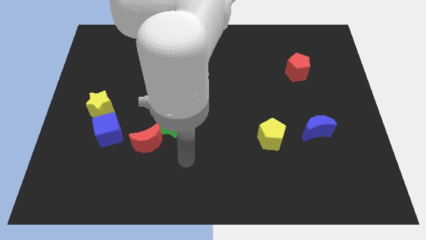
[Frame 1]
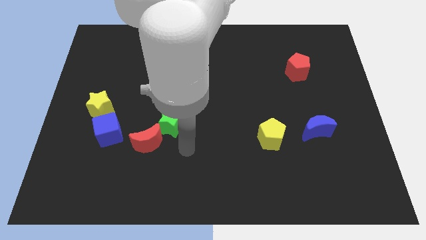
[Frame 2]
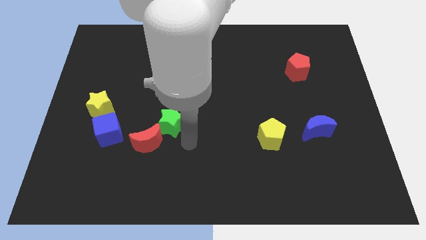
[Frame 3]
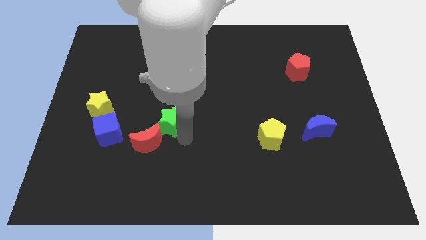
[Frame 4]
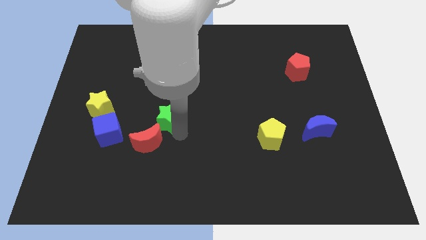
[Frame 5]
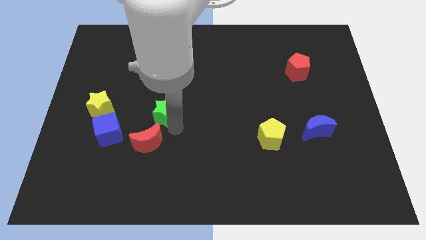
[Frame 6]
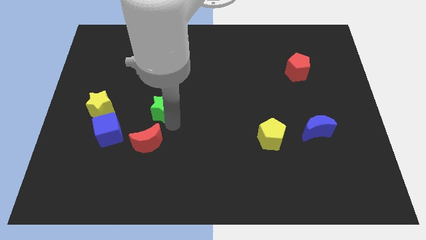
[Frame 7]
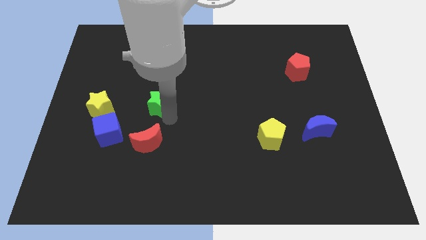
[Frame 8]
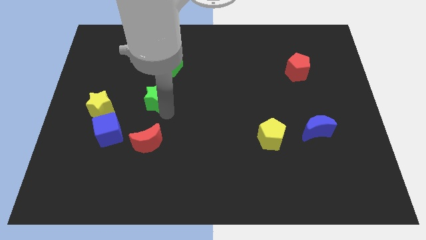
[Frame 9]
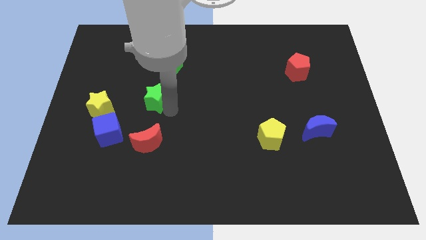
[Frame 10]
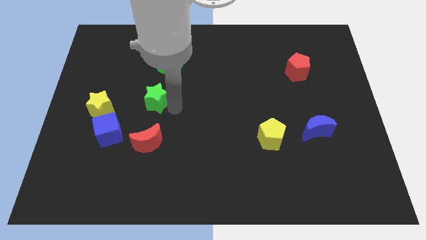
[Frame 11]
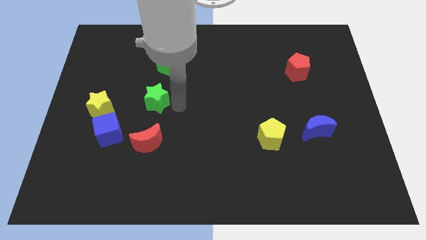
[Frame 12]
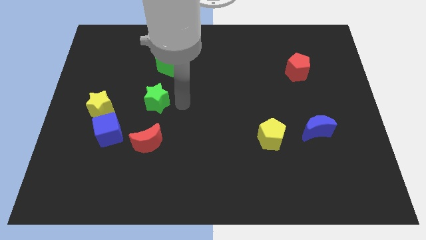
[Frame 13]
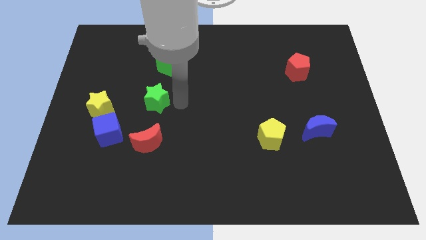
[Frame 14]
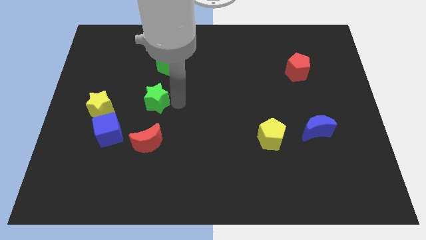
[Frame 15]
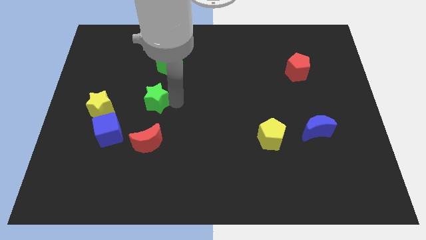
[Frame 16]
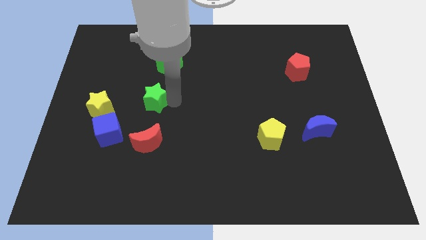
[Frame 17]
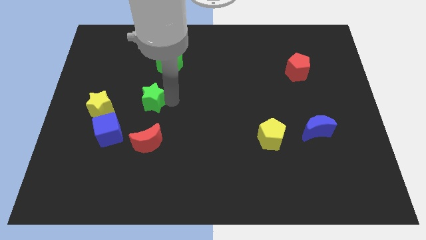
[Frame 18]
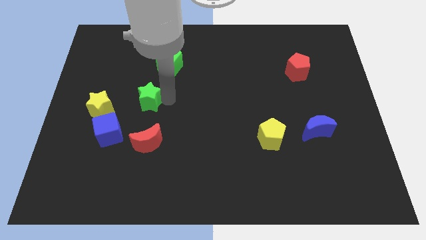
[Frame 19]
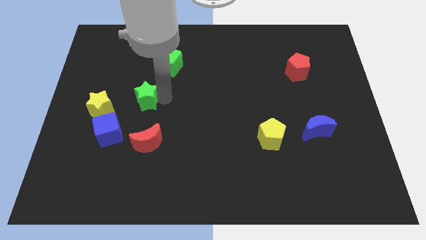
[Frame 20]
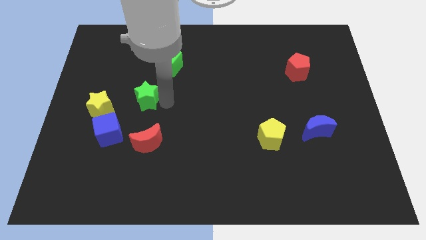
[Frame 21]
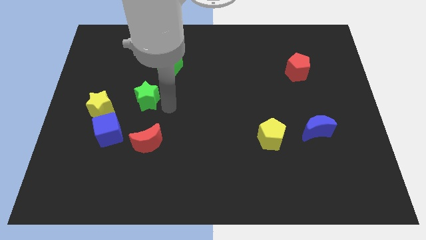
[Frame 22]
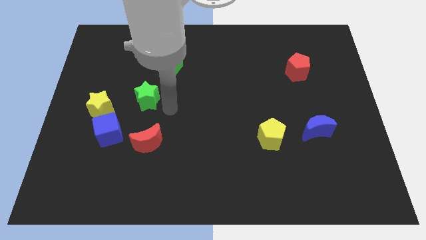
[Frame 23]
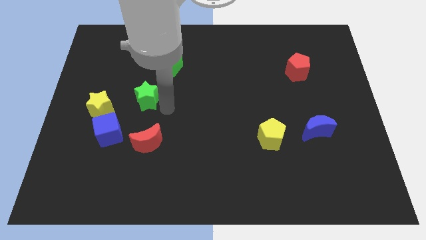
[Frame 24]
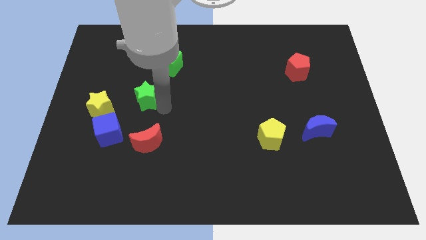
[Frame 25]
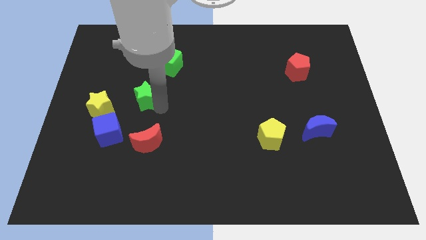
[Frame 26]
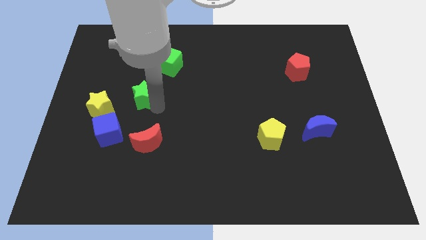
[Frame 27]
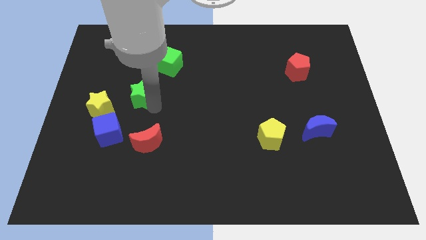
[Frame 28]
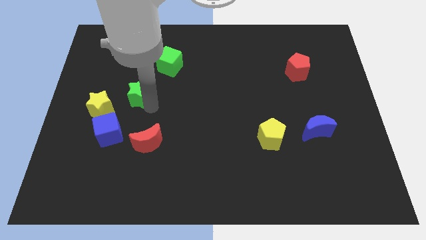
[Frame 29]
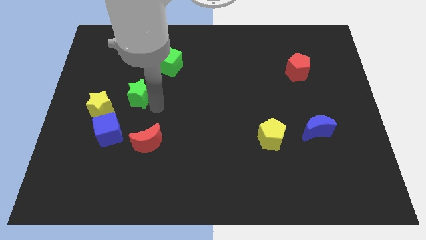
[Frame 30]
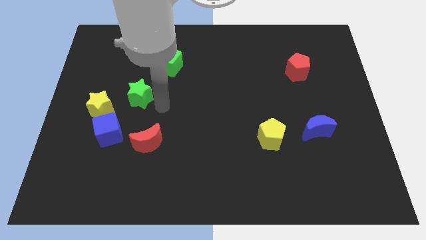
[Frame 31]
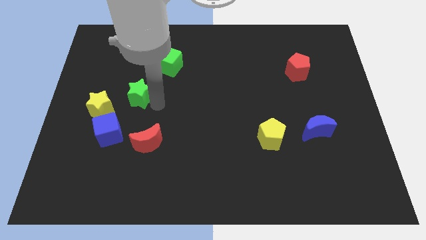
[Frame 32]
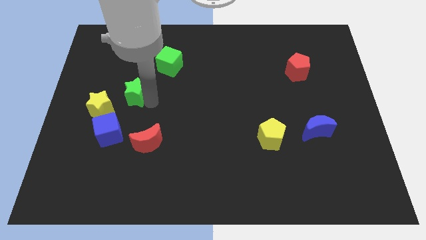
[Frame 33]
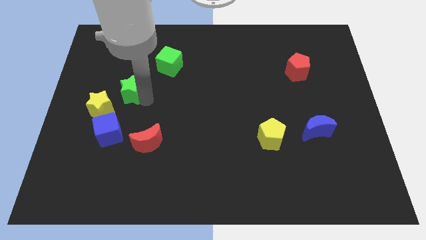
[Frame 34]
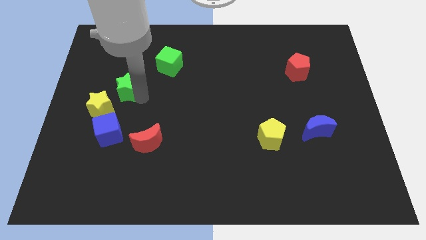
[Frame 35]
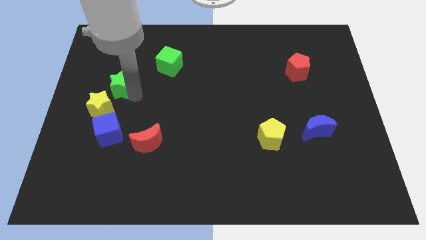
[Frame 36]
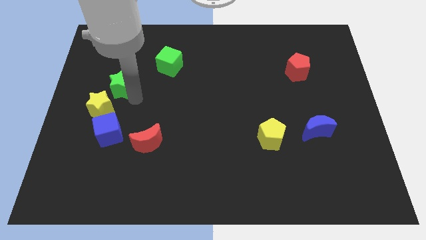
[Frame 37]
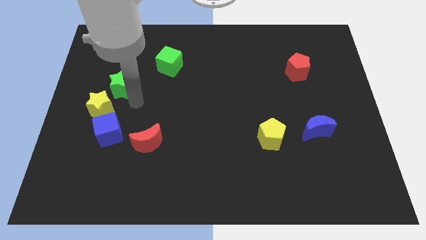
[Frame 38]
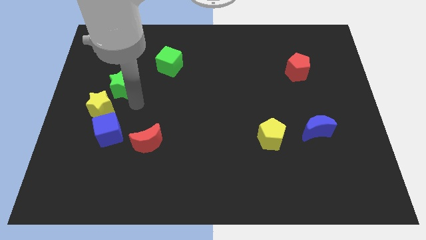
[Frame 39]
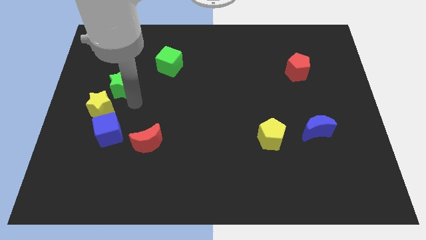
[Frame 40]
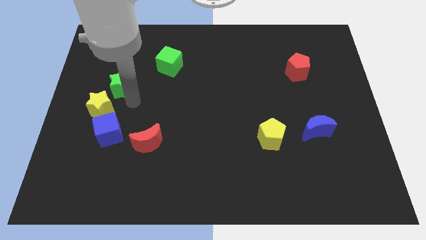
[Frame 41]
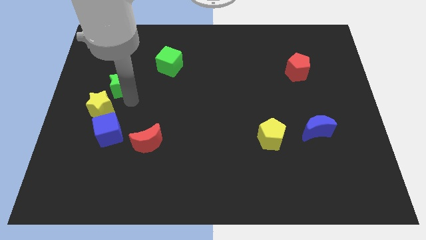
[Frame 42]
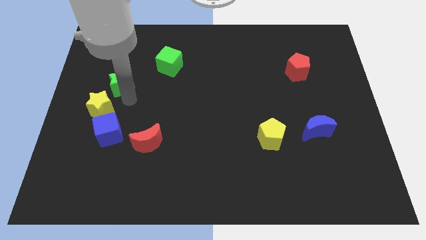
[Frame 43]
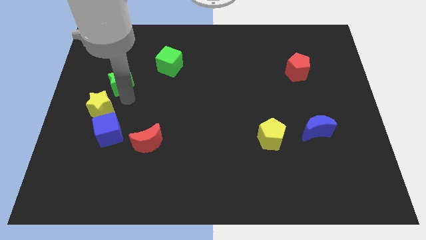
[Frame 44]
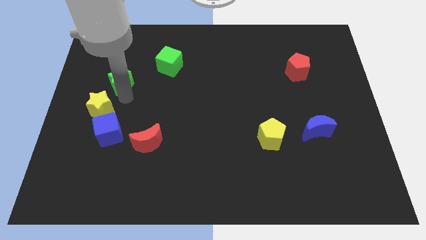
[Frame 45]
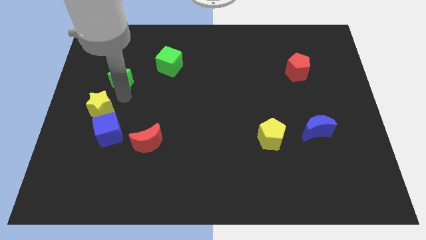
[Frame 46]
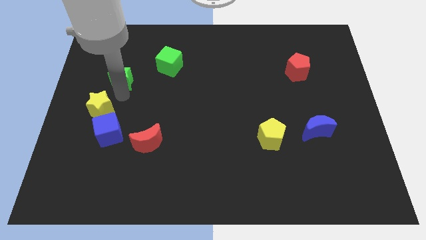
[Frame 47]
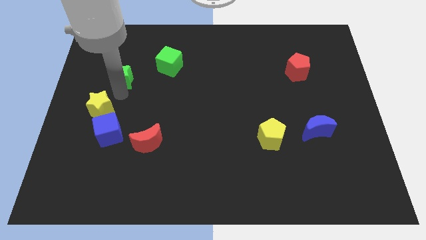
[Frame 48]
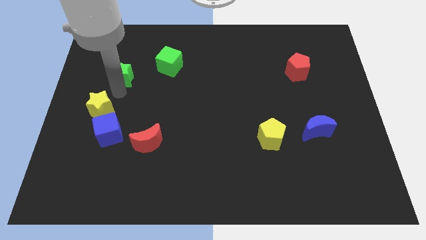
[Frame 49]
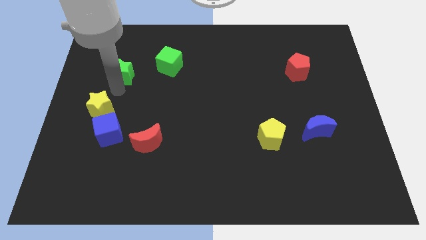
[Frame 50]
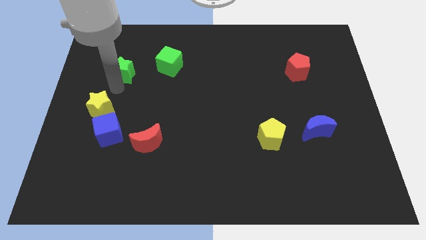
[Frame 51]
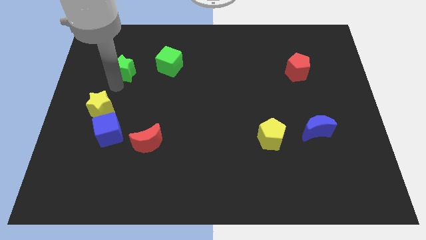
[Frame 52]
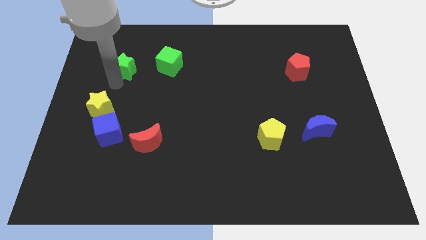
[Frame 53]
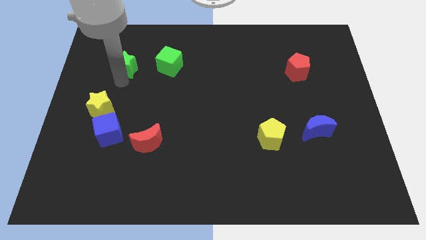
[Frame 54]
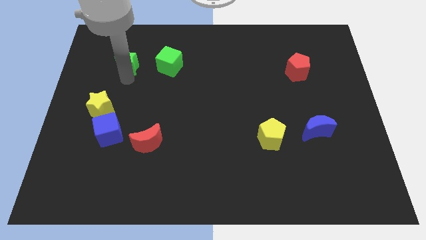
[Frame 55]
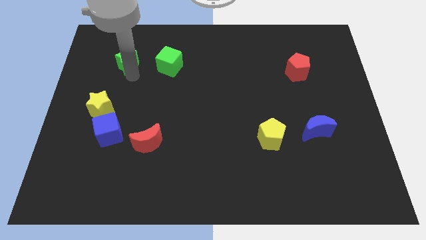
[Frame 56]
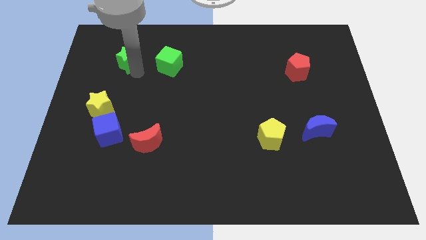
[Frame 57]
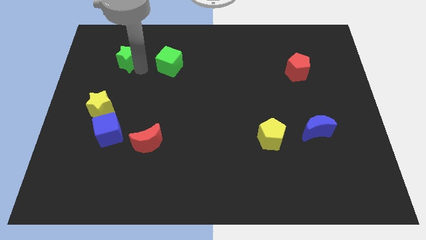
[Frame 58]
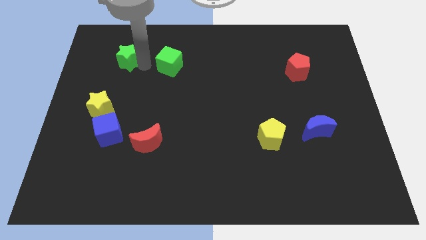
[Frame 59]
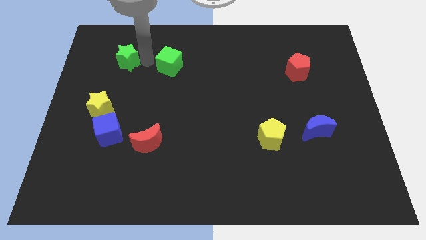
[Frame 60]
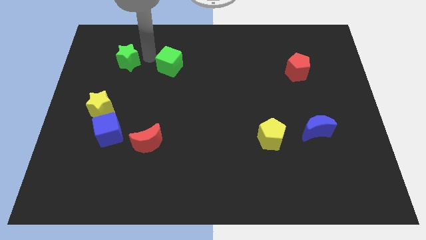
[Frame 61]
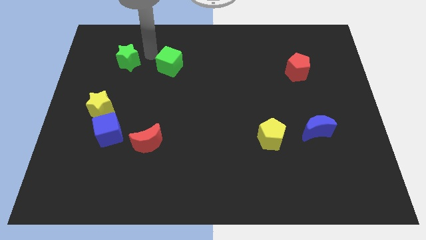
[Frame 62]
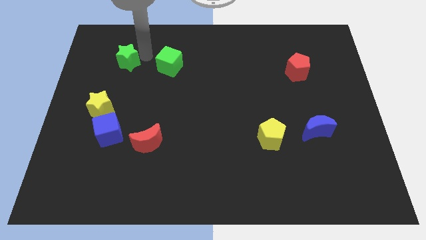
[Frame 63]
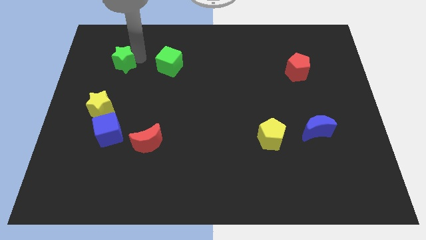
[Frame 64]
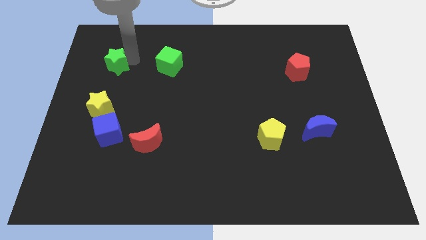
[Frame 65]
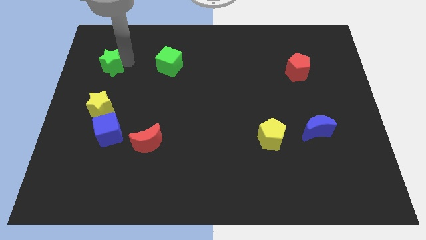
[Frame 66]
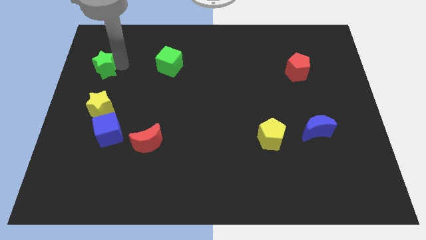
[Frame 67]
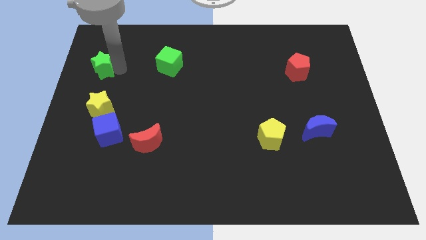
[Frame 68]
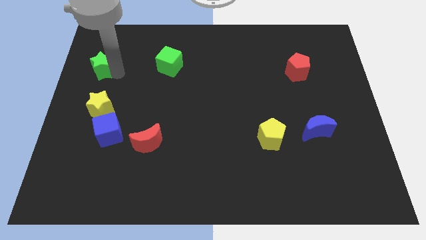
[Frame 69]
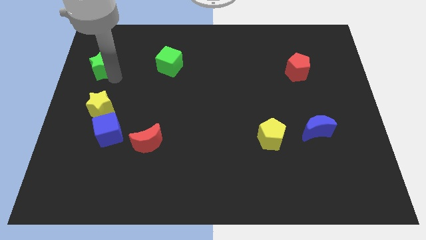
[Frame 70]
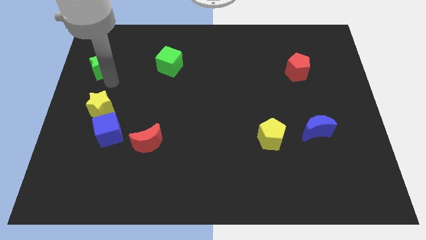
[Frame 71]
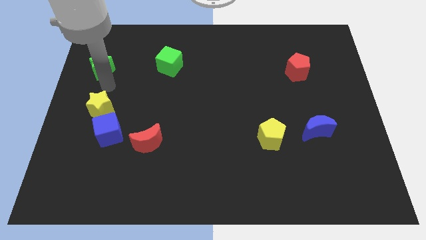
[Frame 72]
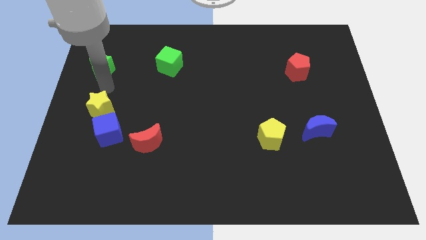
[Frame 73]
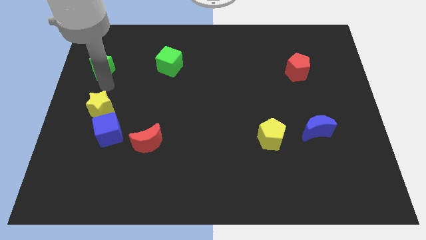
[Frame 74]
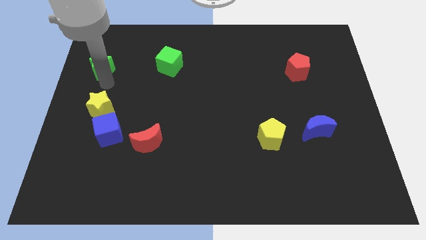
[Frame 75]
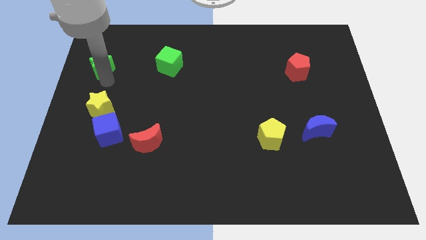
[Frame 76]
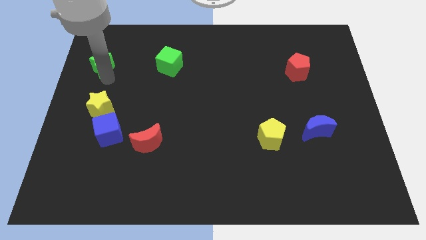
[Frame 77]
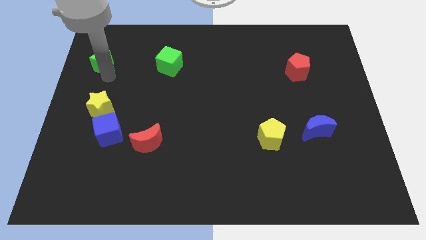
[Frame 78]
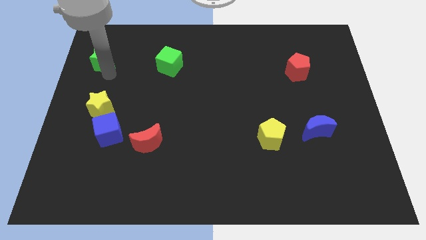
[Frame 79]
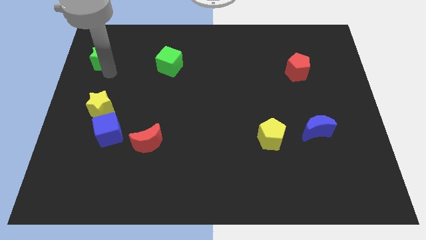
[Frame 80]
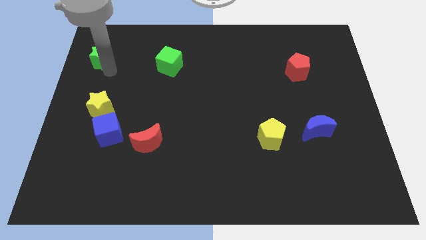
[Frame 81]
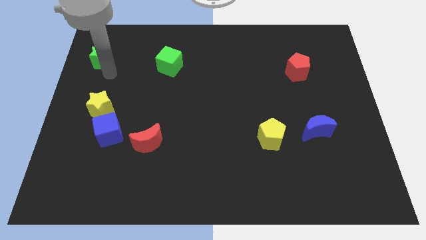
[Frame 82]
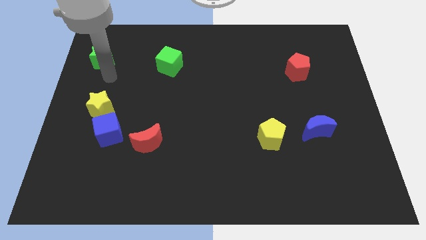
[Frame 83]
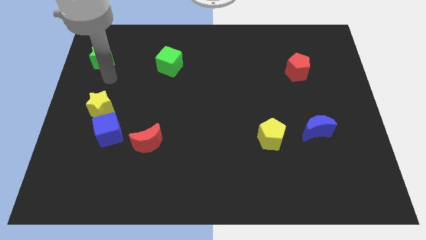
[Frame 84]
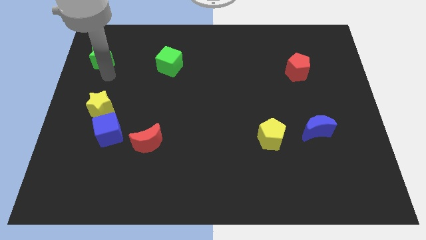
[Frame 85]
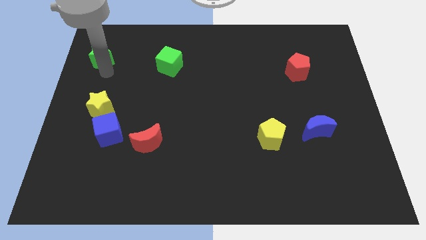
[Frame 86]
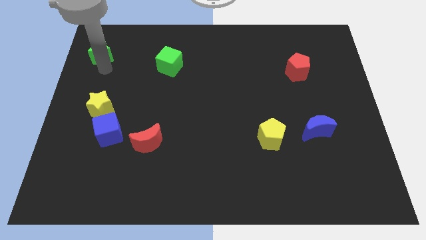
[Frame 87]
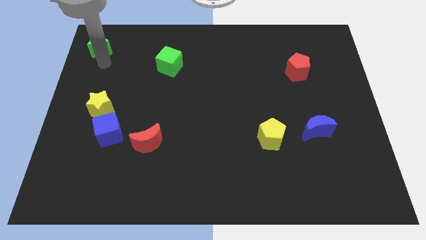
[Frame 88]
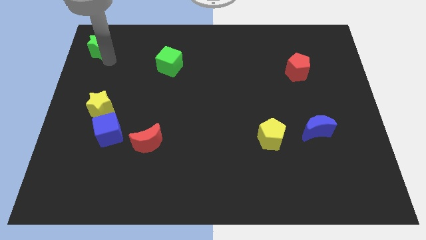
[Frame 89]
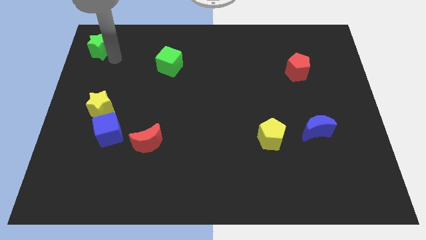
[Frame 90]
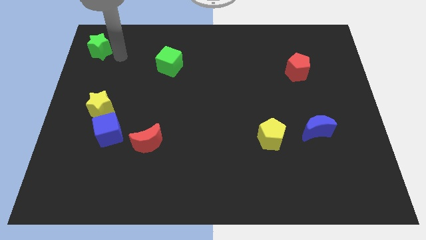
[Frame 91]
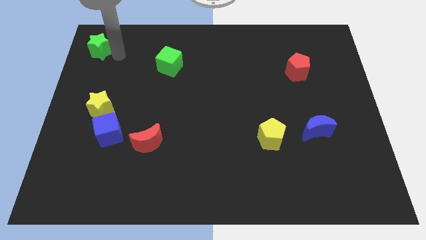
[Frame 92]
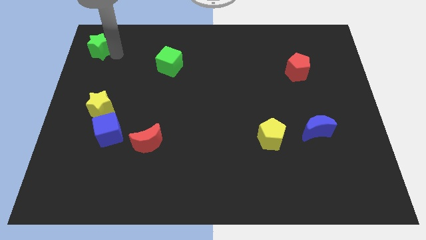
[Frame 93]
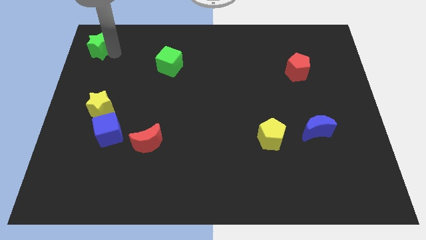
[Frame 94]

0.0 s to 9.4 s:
push the green star to the upper left corner
